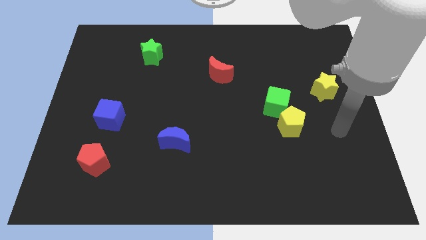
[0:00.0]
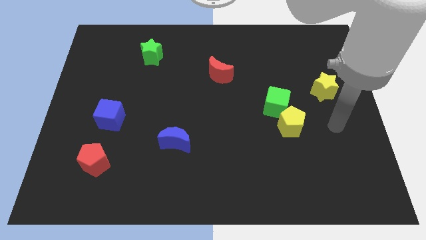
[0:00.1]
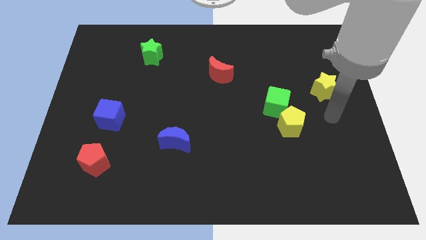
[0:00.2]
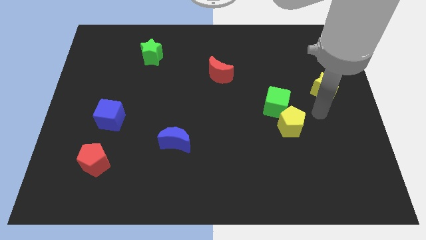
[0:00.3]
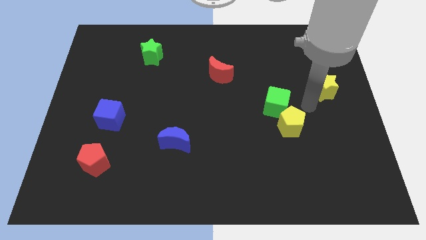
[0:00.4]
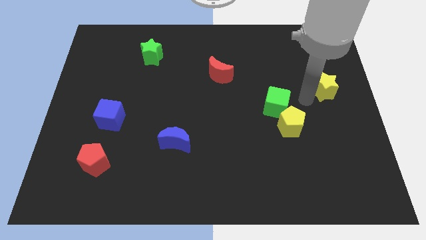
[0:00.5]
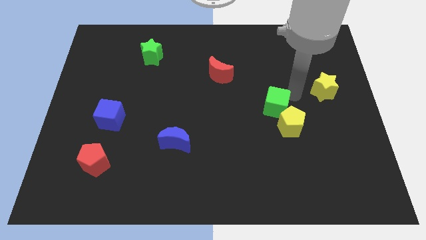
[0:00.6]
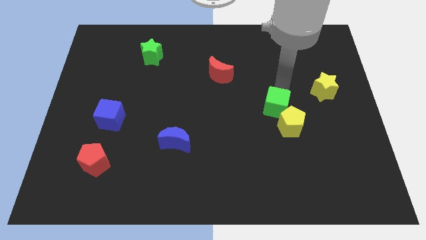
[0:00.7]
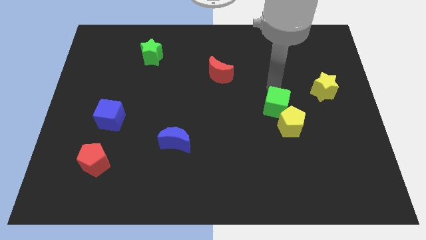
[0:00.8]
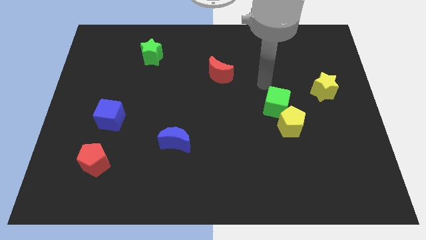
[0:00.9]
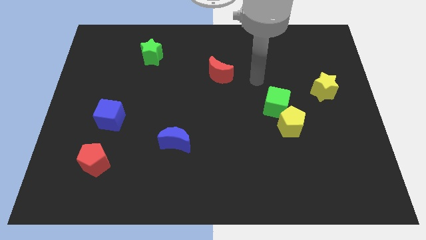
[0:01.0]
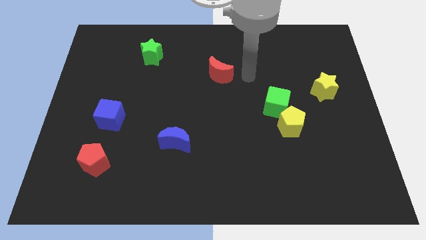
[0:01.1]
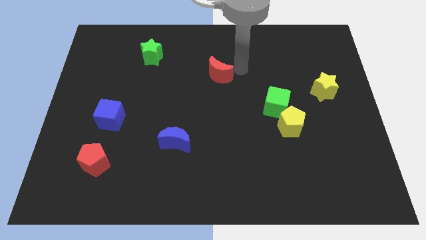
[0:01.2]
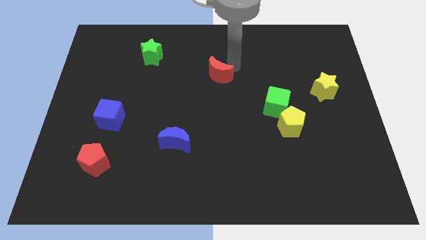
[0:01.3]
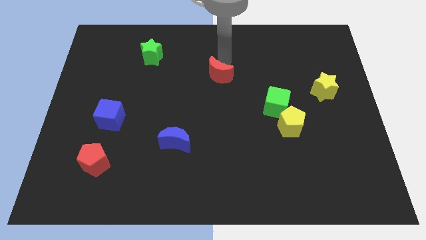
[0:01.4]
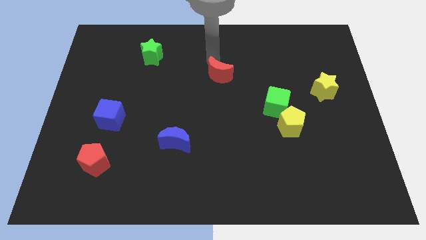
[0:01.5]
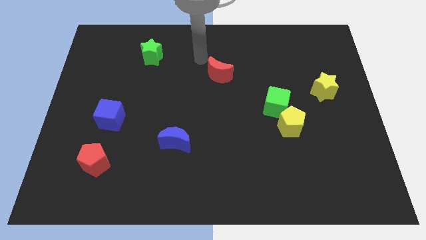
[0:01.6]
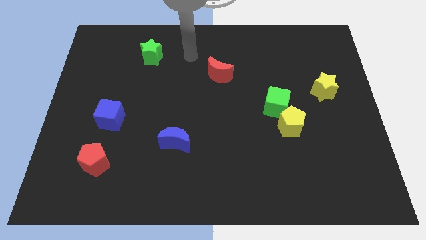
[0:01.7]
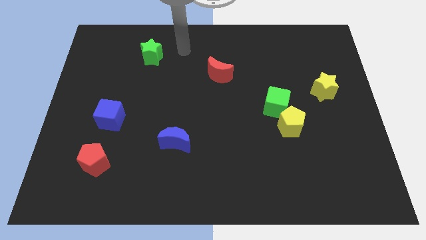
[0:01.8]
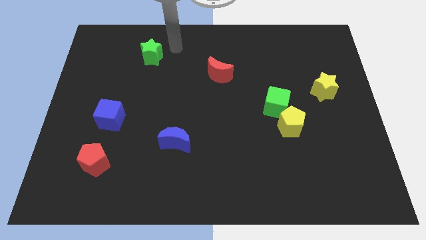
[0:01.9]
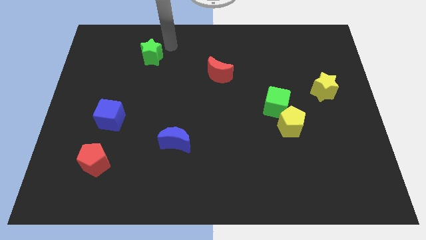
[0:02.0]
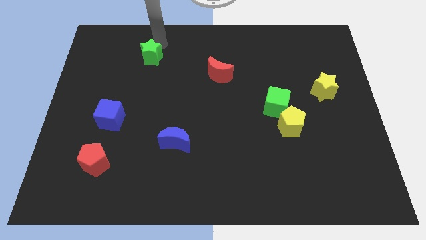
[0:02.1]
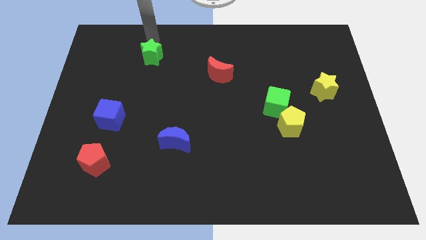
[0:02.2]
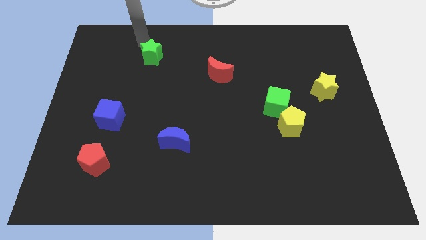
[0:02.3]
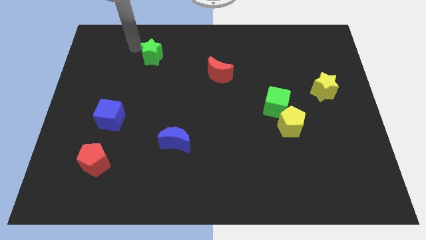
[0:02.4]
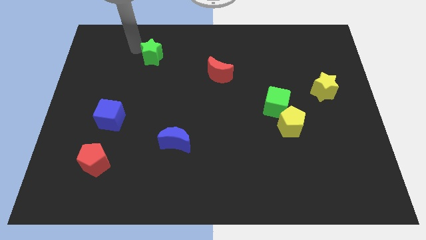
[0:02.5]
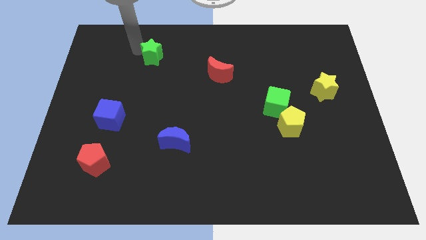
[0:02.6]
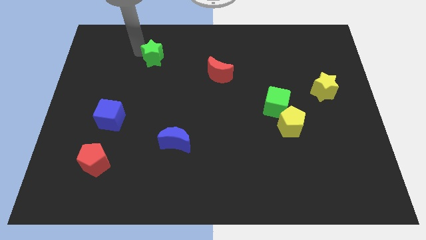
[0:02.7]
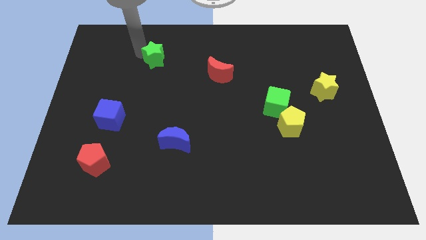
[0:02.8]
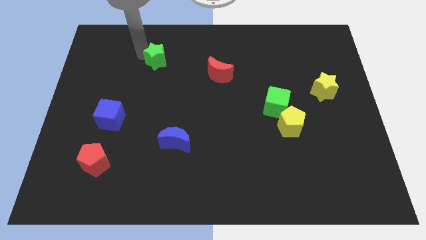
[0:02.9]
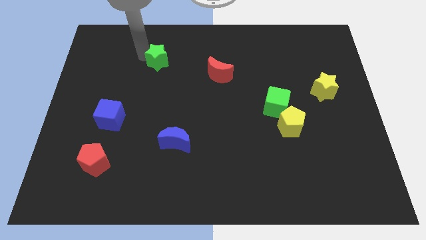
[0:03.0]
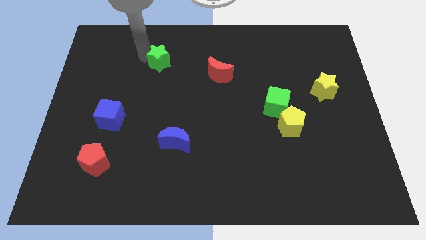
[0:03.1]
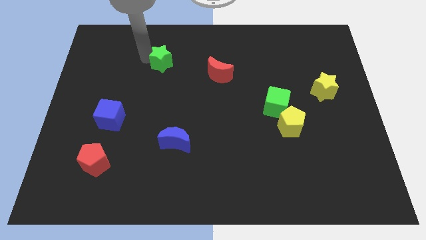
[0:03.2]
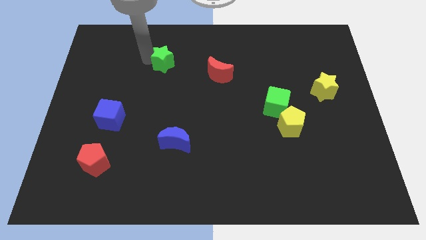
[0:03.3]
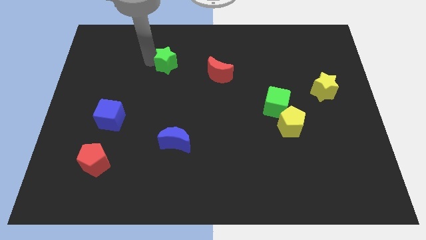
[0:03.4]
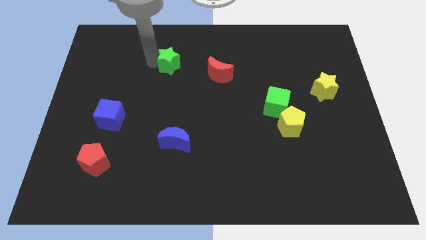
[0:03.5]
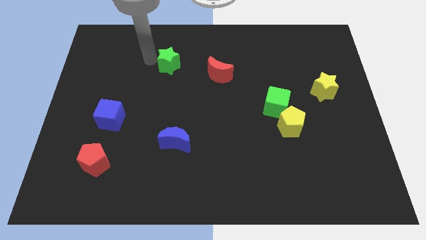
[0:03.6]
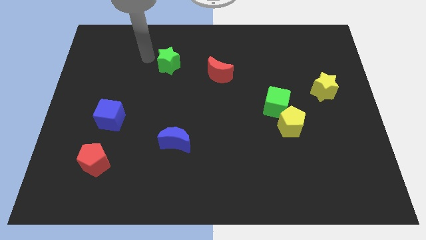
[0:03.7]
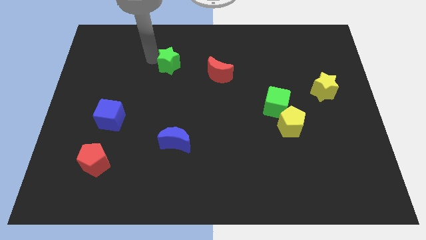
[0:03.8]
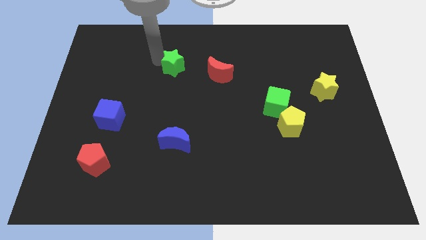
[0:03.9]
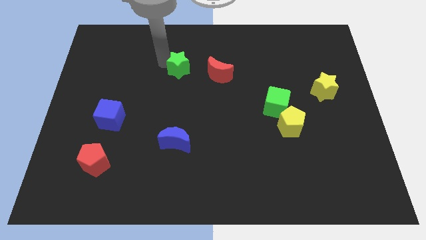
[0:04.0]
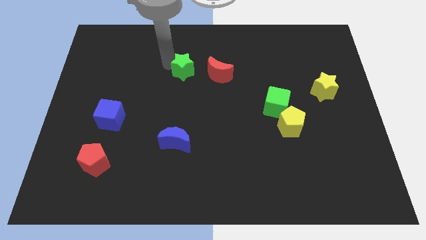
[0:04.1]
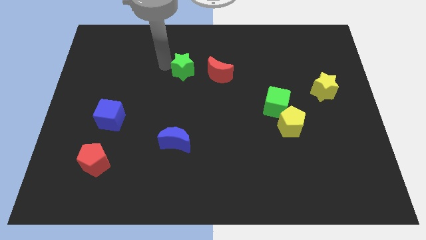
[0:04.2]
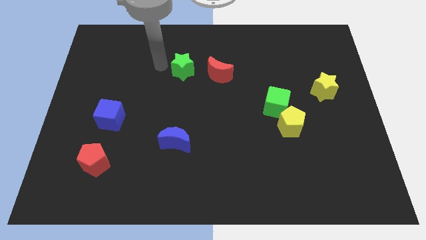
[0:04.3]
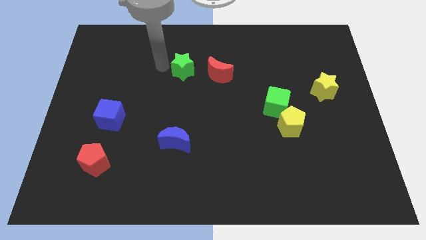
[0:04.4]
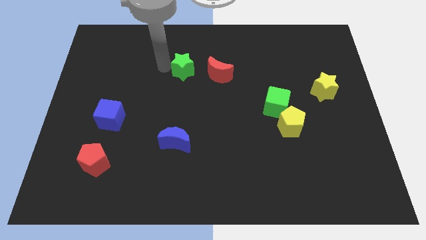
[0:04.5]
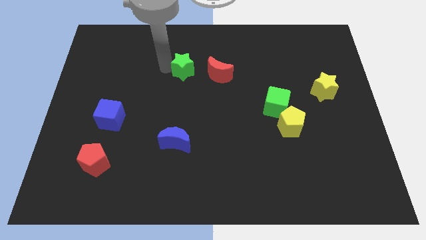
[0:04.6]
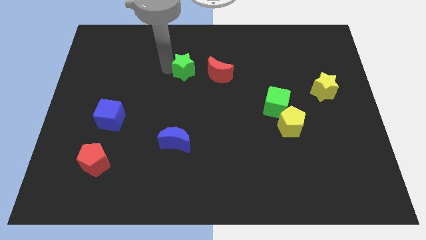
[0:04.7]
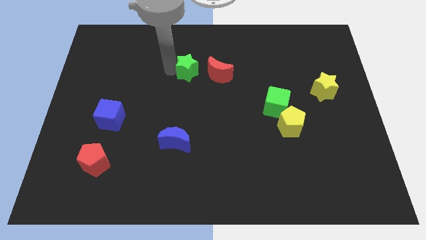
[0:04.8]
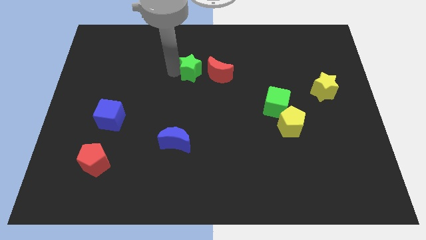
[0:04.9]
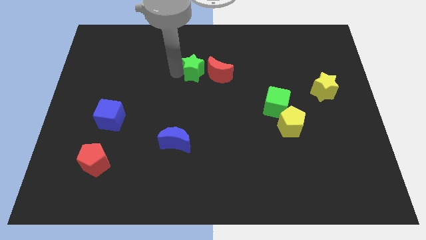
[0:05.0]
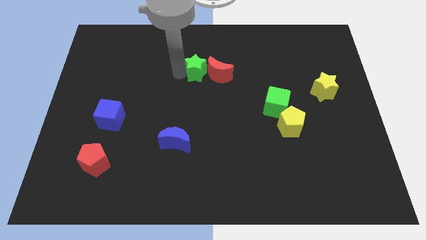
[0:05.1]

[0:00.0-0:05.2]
slide the green star to the red moon

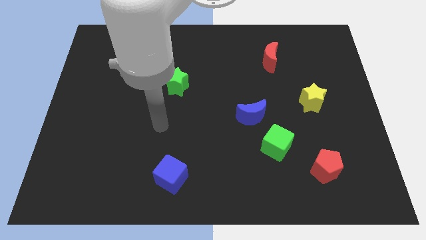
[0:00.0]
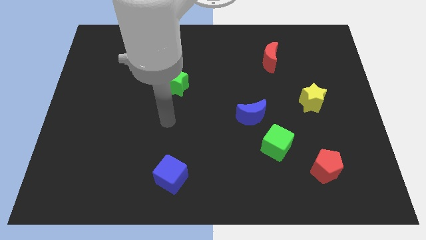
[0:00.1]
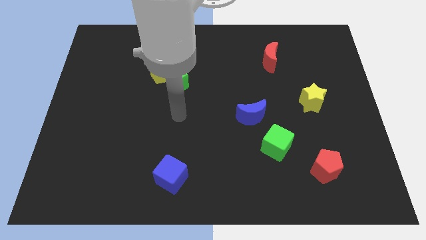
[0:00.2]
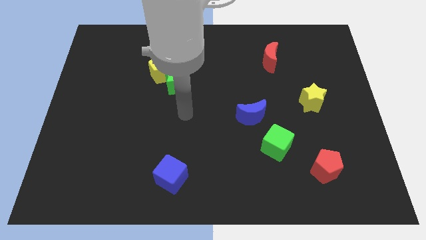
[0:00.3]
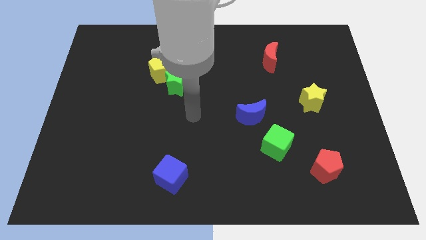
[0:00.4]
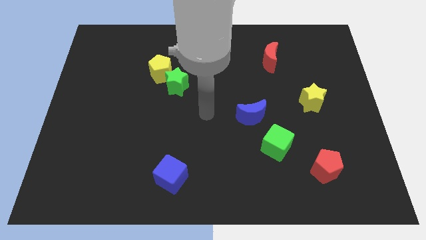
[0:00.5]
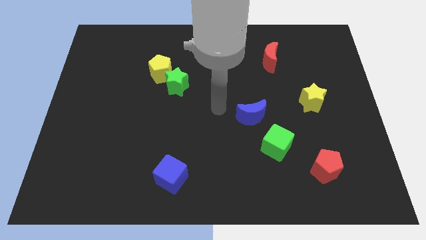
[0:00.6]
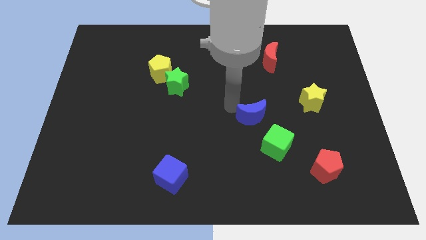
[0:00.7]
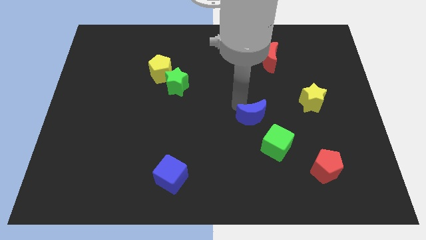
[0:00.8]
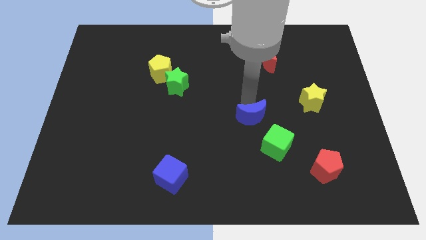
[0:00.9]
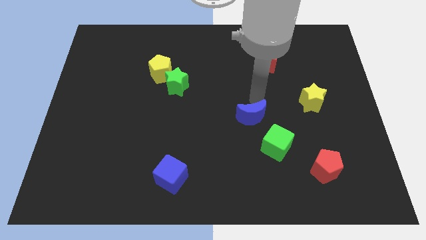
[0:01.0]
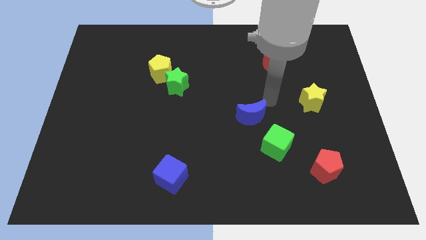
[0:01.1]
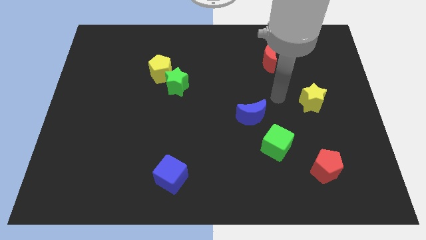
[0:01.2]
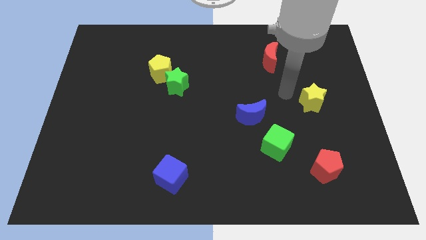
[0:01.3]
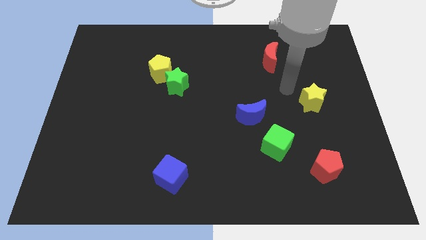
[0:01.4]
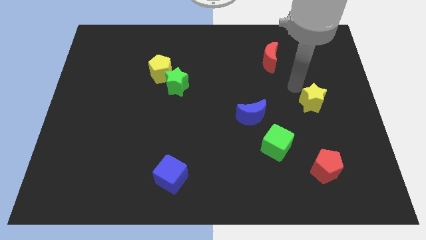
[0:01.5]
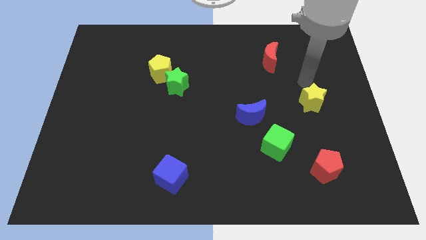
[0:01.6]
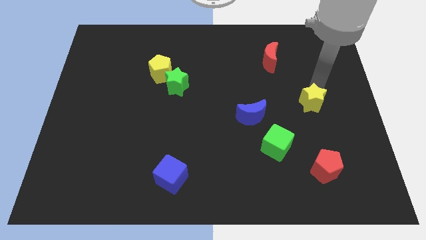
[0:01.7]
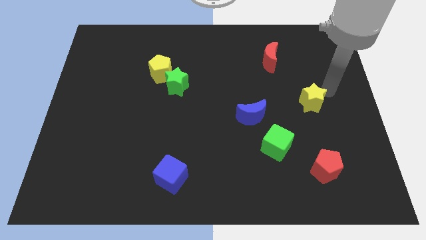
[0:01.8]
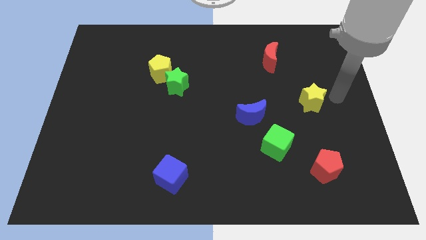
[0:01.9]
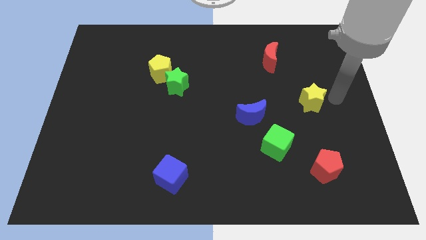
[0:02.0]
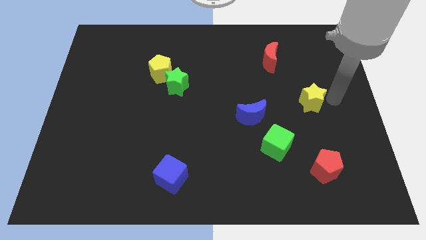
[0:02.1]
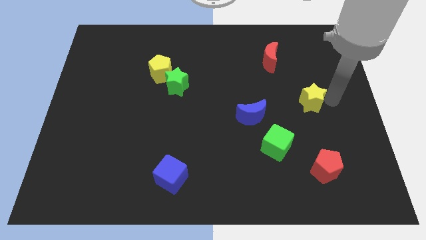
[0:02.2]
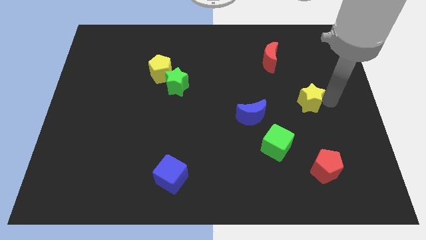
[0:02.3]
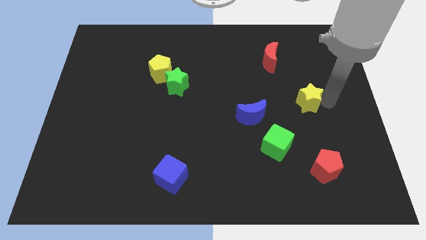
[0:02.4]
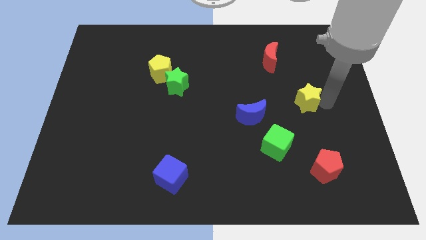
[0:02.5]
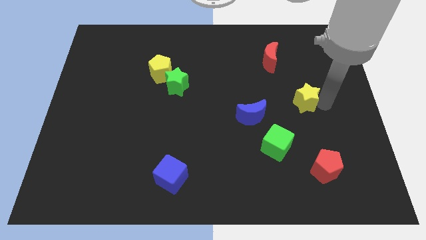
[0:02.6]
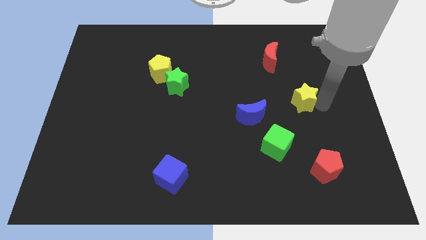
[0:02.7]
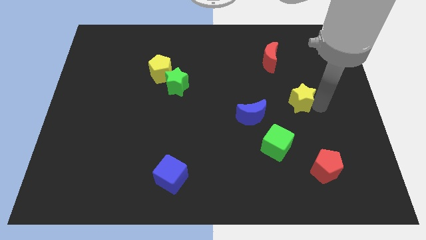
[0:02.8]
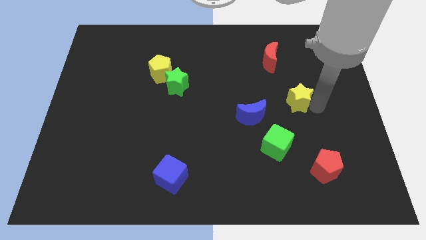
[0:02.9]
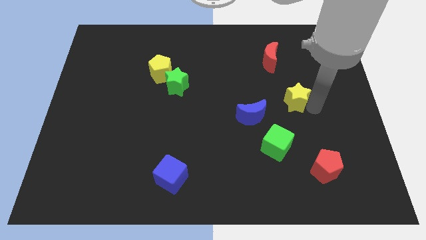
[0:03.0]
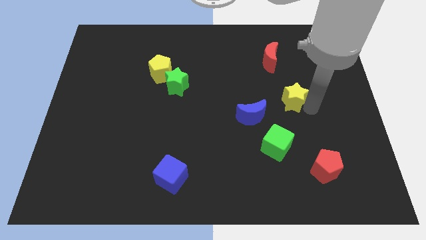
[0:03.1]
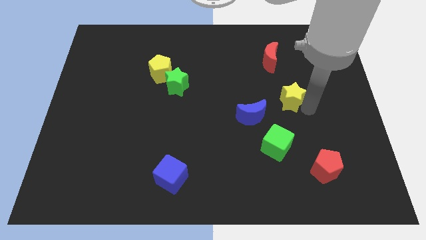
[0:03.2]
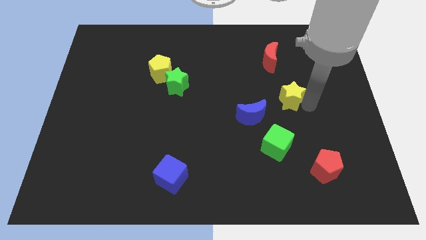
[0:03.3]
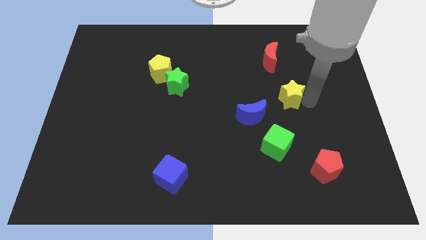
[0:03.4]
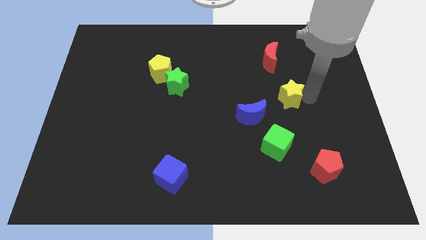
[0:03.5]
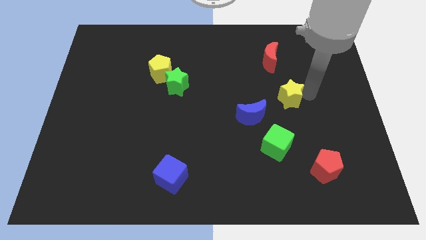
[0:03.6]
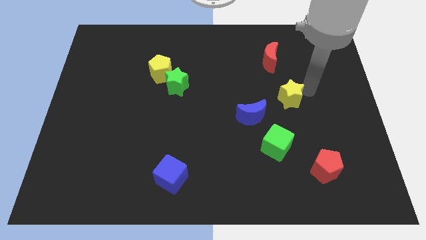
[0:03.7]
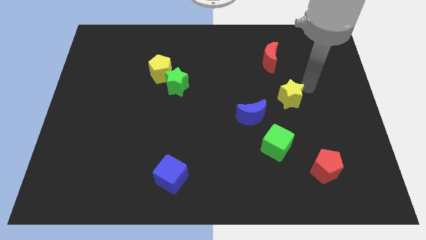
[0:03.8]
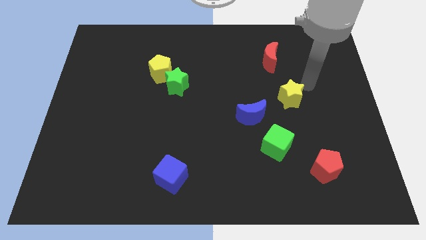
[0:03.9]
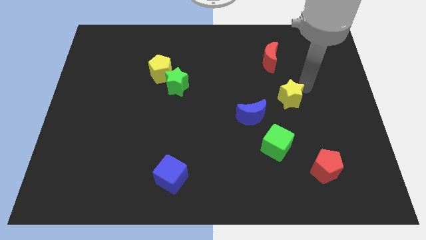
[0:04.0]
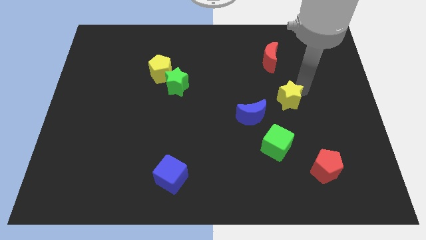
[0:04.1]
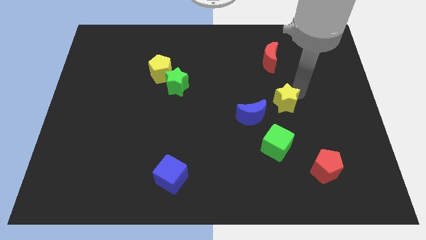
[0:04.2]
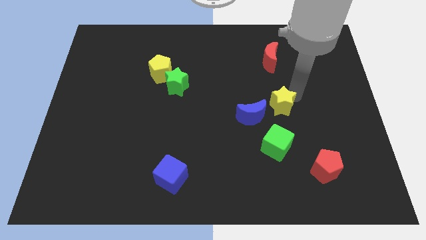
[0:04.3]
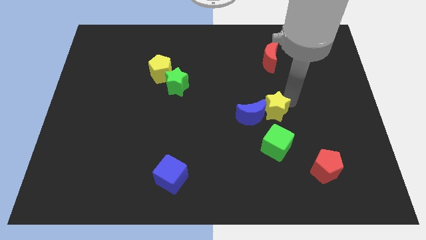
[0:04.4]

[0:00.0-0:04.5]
slide the yellow star next to the blue moon
